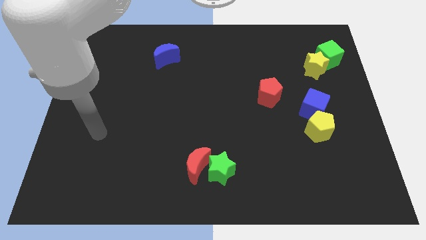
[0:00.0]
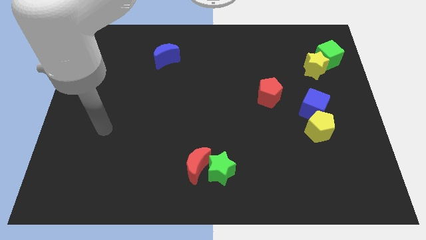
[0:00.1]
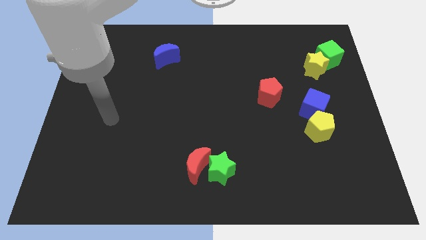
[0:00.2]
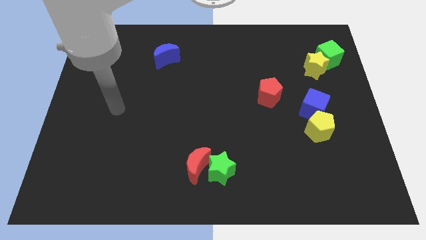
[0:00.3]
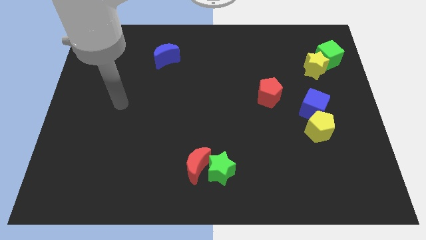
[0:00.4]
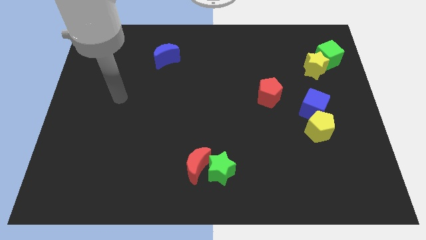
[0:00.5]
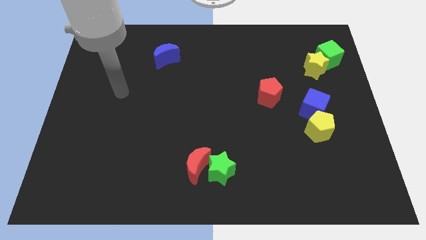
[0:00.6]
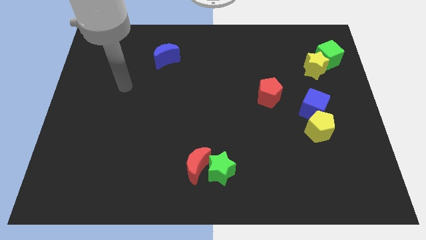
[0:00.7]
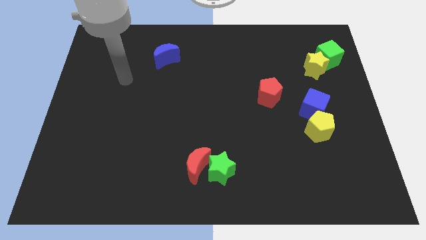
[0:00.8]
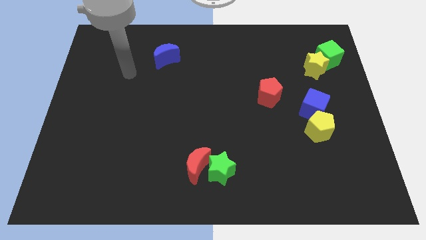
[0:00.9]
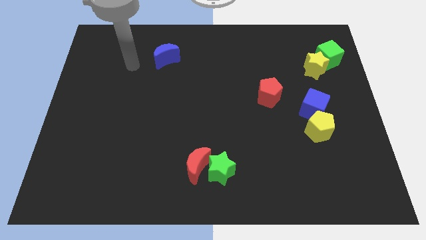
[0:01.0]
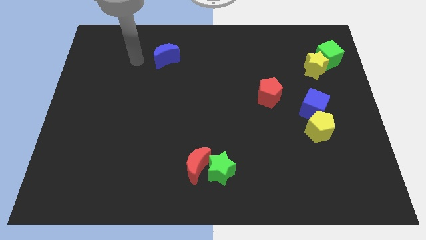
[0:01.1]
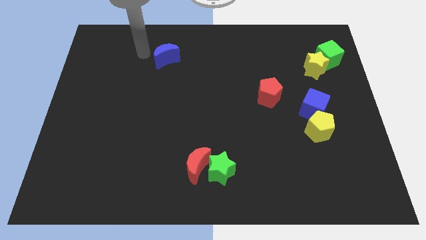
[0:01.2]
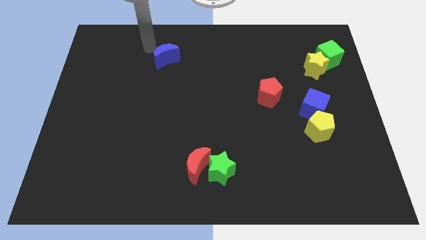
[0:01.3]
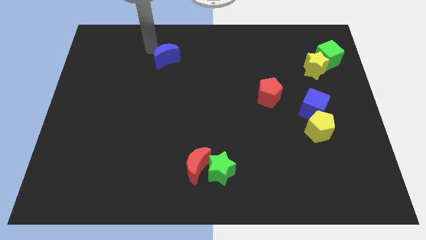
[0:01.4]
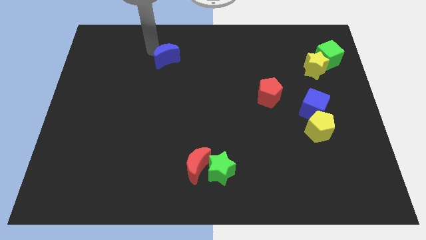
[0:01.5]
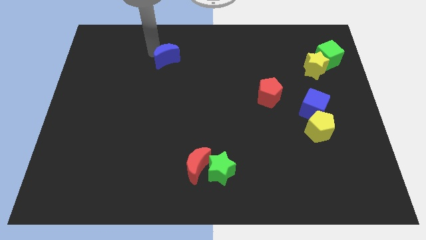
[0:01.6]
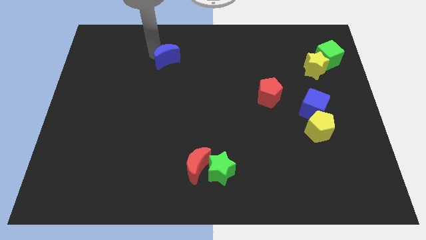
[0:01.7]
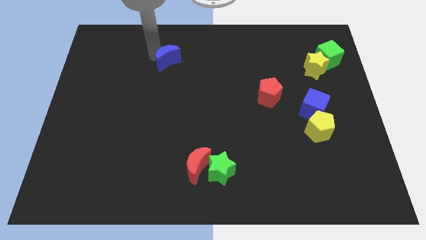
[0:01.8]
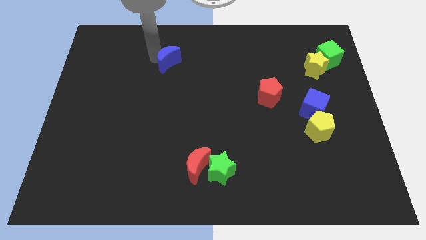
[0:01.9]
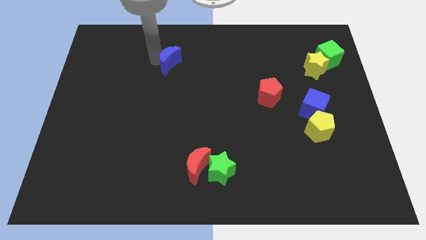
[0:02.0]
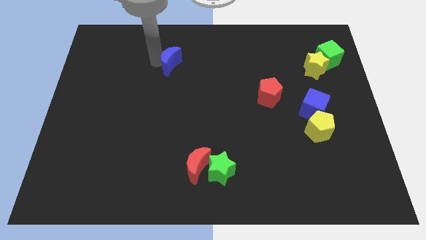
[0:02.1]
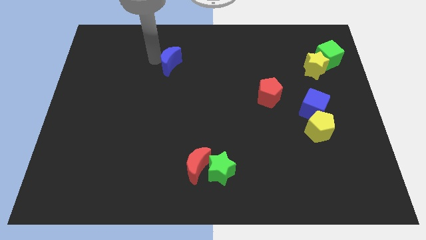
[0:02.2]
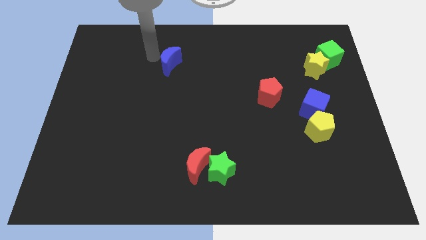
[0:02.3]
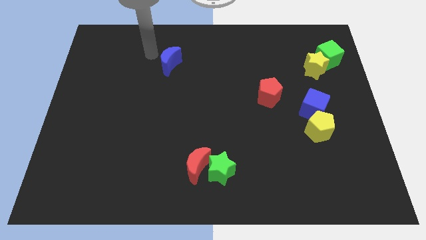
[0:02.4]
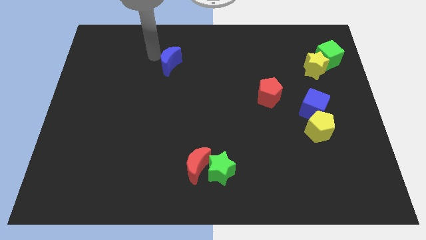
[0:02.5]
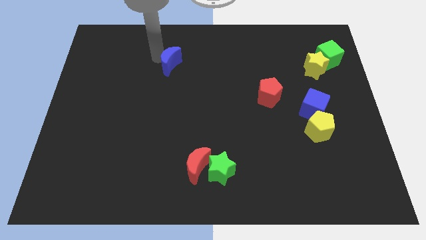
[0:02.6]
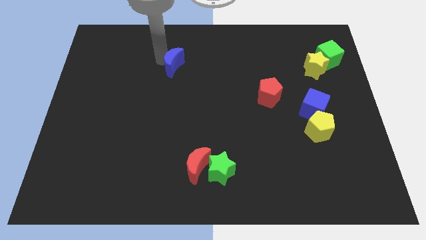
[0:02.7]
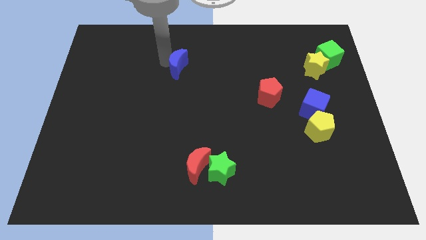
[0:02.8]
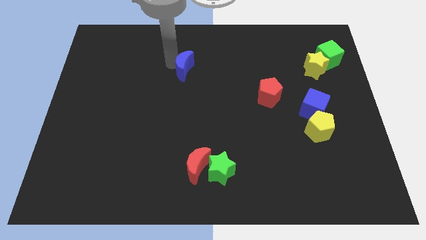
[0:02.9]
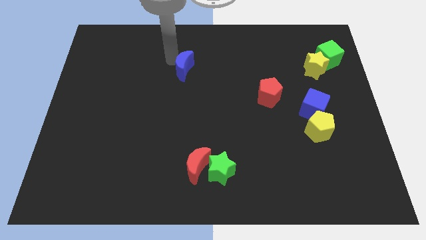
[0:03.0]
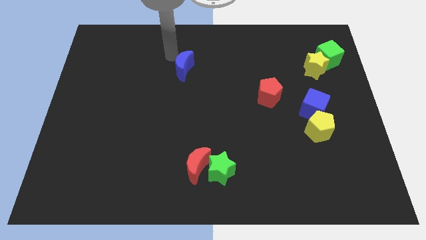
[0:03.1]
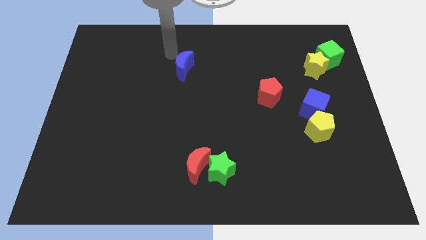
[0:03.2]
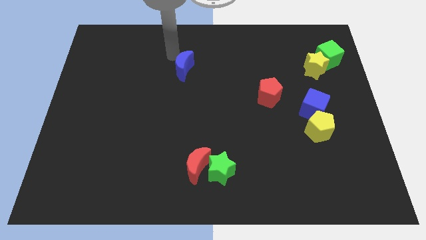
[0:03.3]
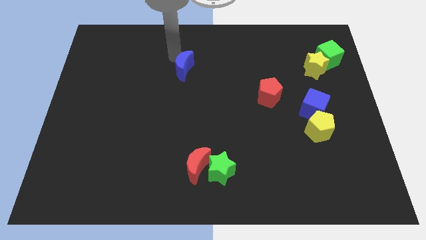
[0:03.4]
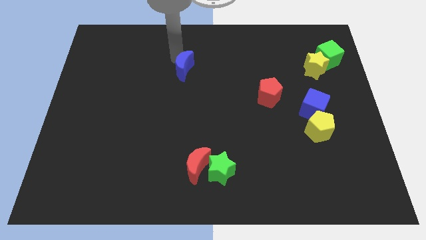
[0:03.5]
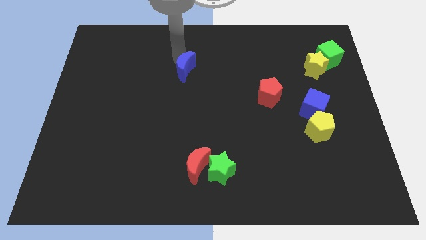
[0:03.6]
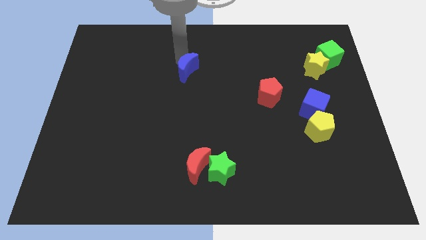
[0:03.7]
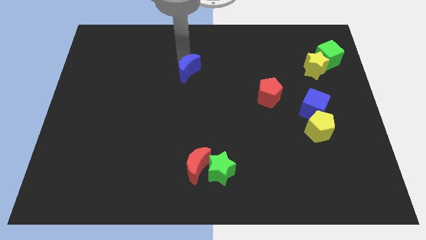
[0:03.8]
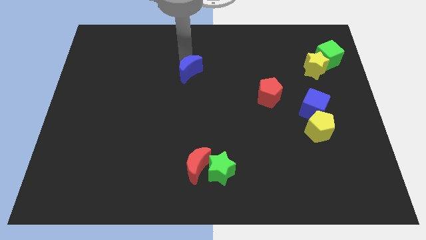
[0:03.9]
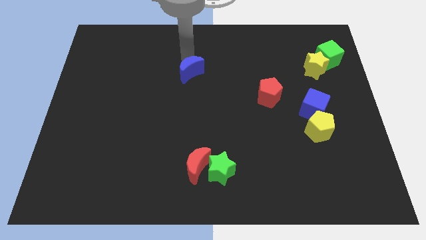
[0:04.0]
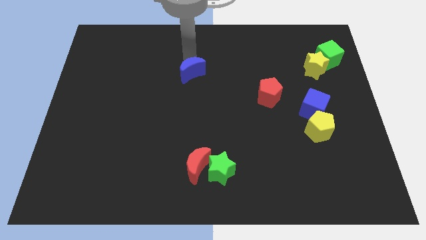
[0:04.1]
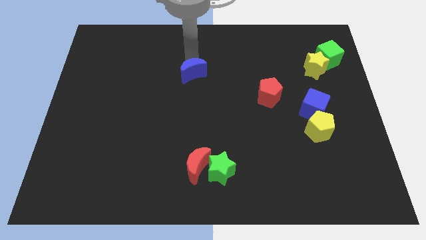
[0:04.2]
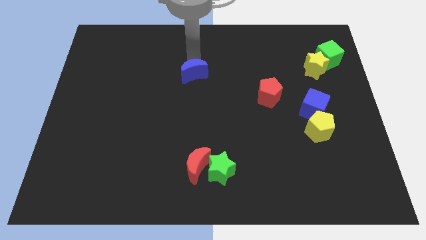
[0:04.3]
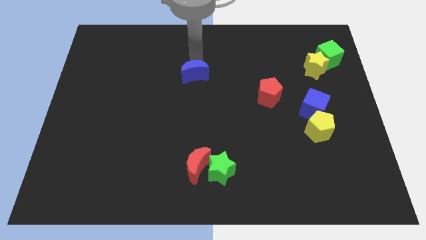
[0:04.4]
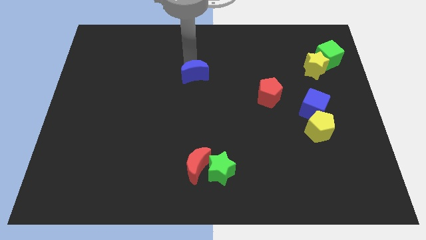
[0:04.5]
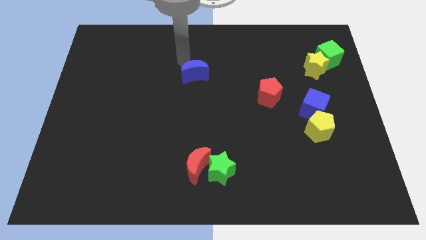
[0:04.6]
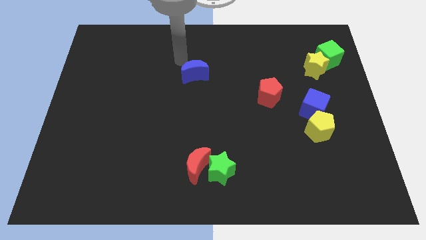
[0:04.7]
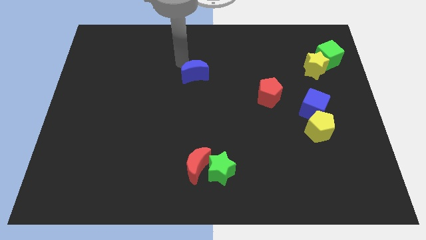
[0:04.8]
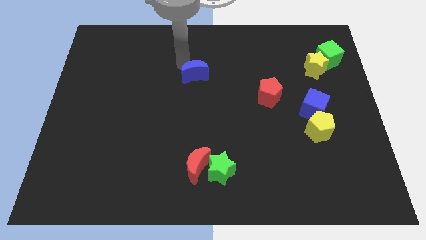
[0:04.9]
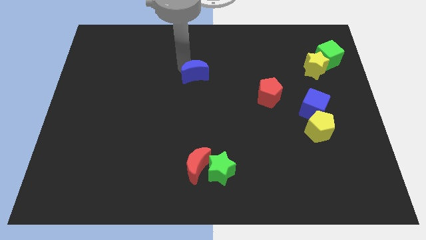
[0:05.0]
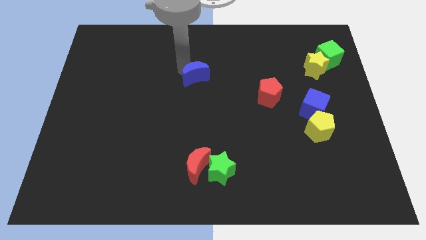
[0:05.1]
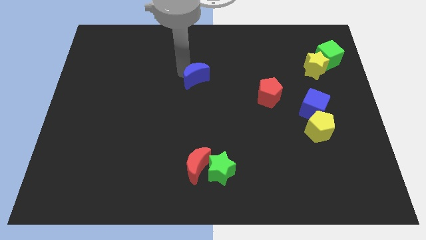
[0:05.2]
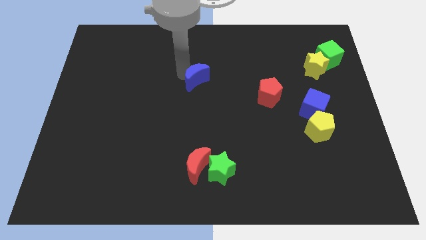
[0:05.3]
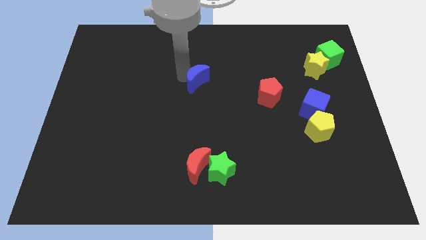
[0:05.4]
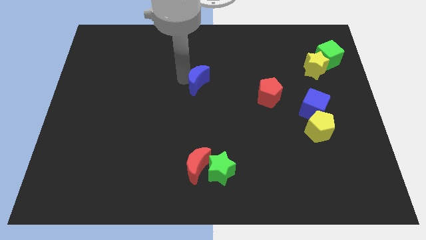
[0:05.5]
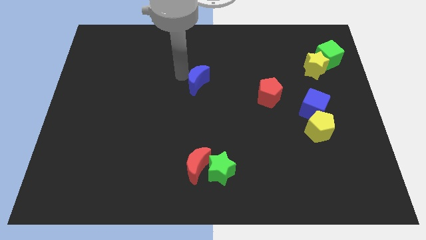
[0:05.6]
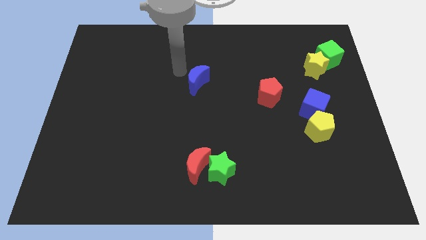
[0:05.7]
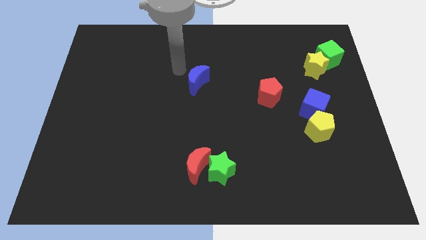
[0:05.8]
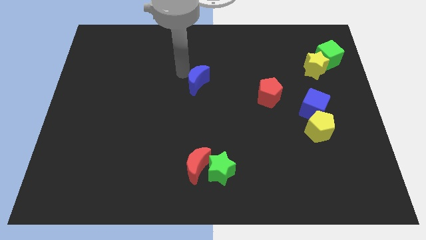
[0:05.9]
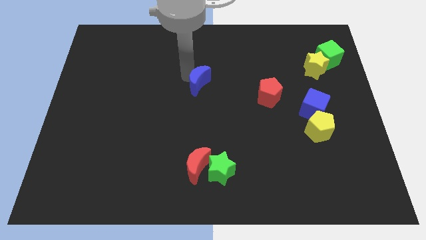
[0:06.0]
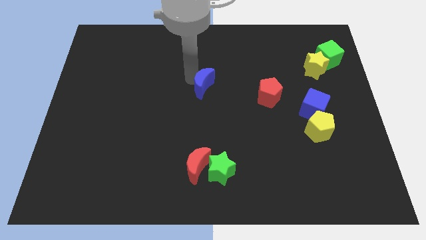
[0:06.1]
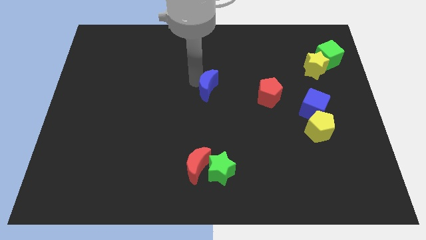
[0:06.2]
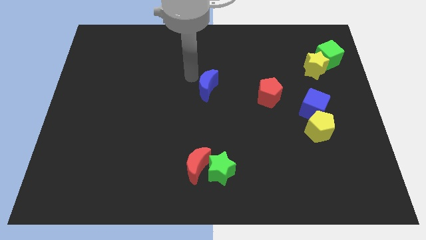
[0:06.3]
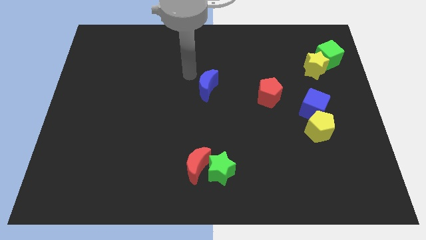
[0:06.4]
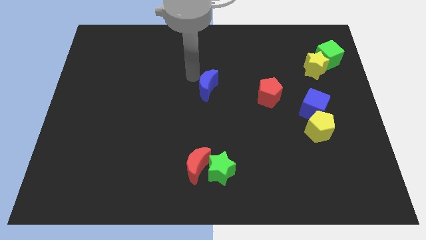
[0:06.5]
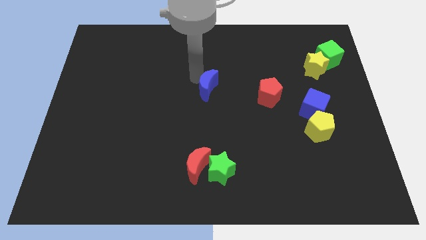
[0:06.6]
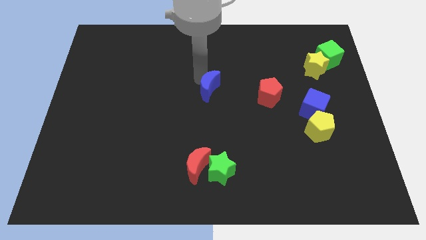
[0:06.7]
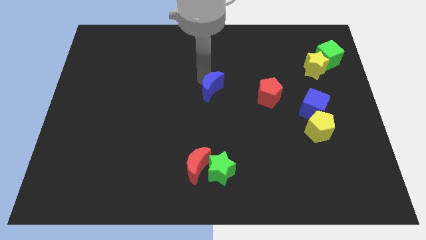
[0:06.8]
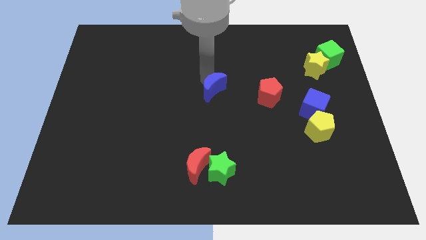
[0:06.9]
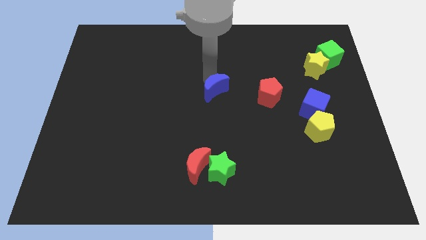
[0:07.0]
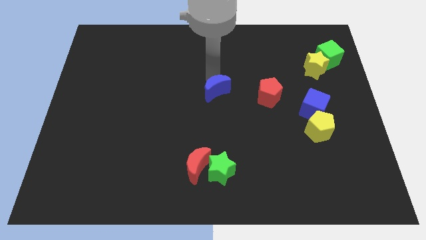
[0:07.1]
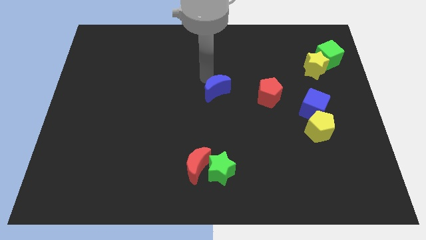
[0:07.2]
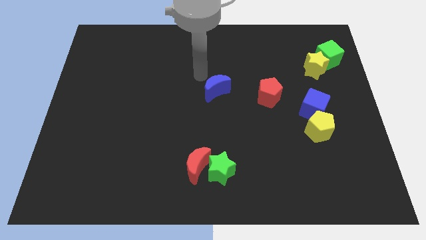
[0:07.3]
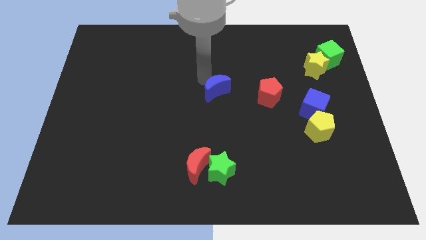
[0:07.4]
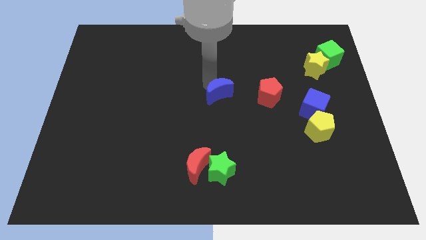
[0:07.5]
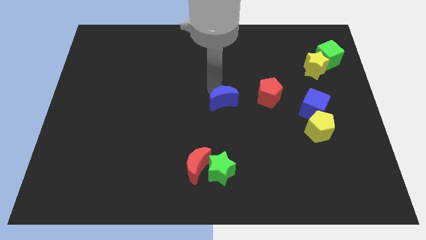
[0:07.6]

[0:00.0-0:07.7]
push the blue moon downwards and to the right

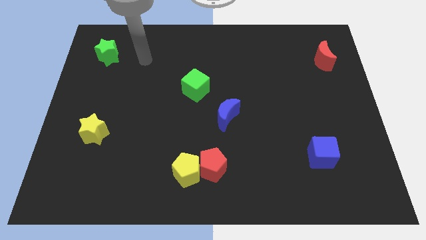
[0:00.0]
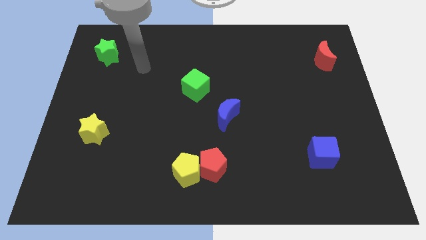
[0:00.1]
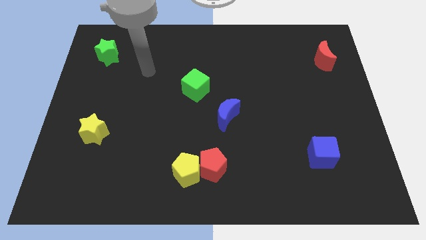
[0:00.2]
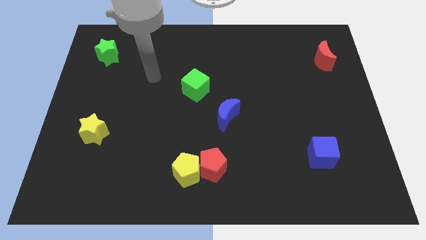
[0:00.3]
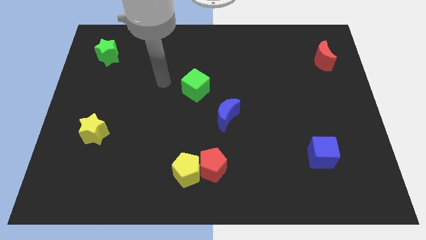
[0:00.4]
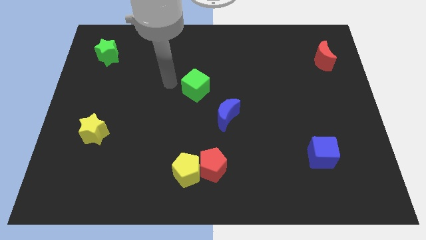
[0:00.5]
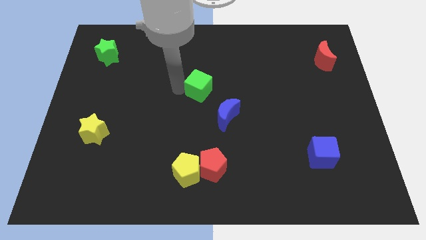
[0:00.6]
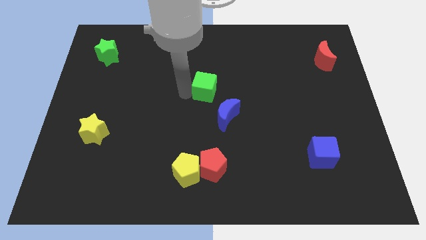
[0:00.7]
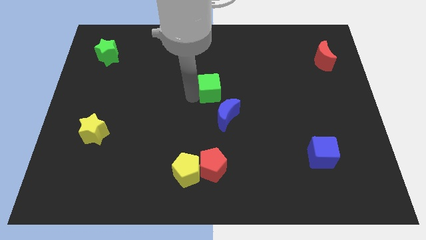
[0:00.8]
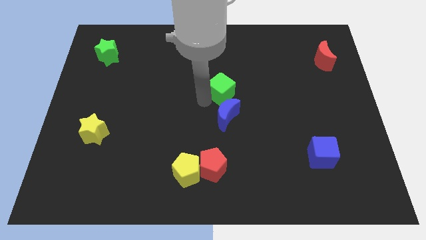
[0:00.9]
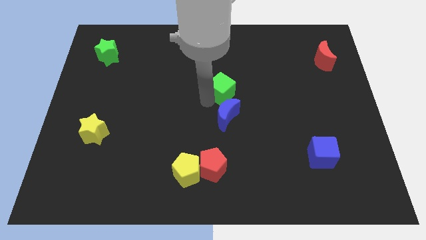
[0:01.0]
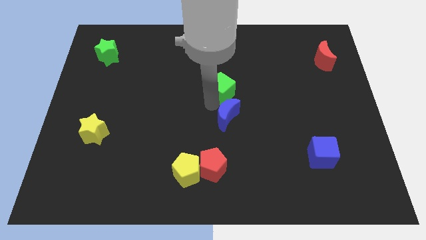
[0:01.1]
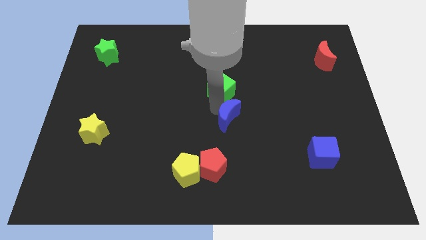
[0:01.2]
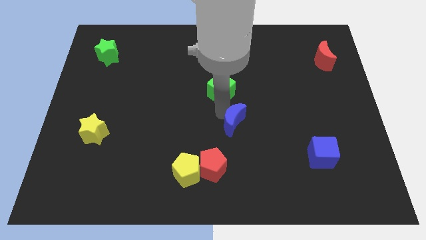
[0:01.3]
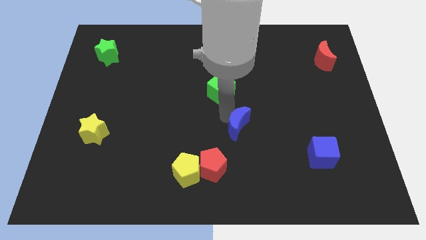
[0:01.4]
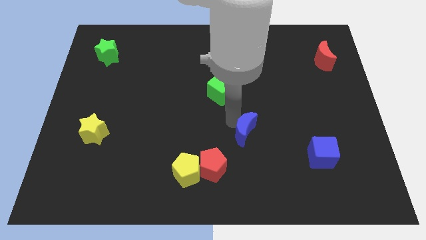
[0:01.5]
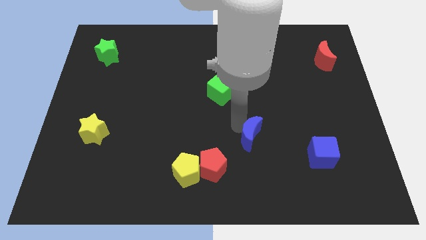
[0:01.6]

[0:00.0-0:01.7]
push the blue moon down and to the right a little
